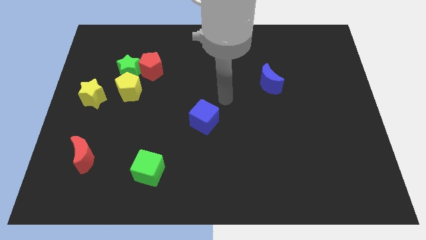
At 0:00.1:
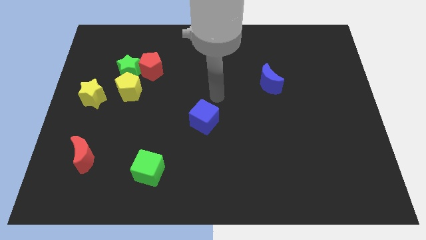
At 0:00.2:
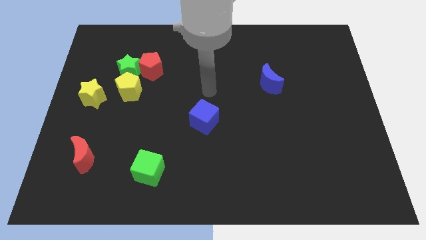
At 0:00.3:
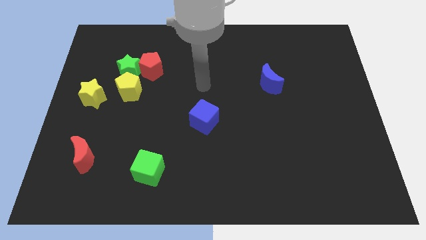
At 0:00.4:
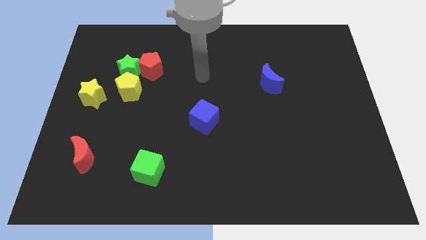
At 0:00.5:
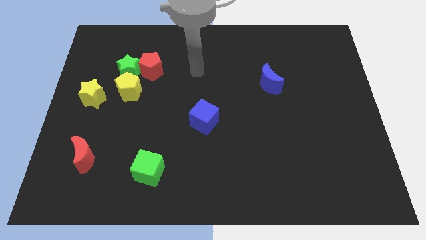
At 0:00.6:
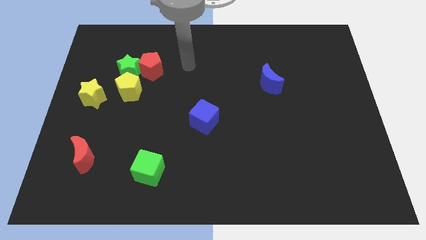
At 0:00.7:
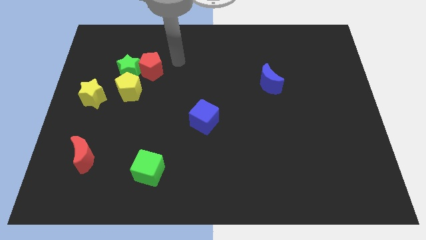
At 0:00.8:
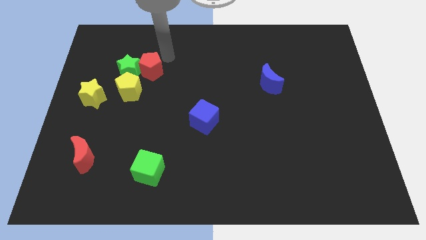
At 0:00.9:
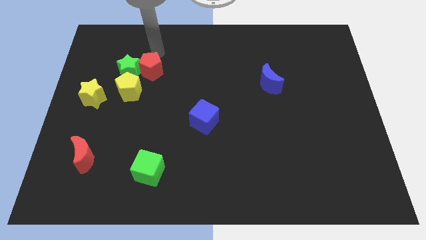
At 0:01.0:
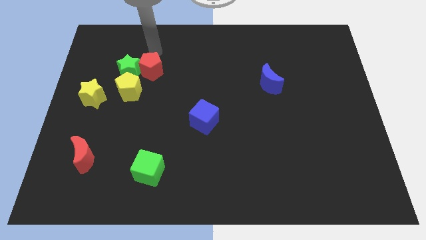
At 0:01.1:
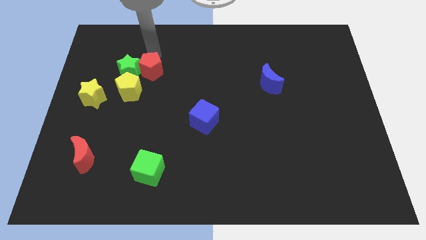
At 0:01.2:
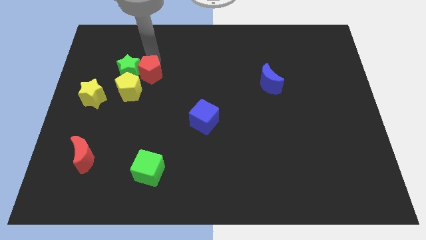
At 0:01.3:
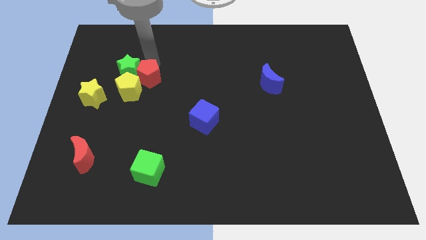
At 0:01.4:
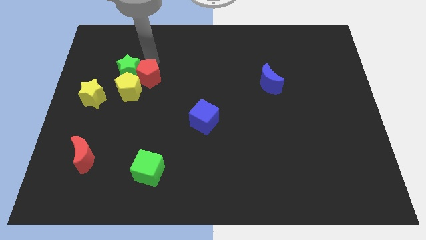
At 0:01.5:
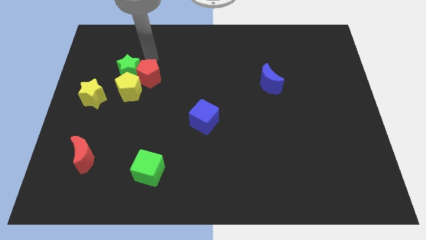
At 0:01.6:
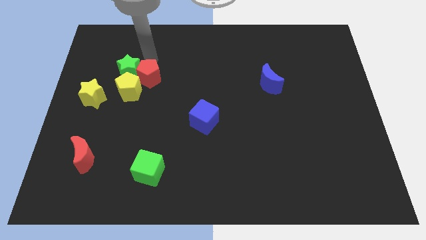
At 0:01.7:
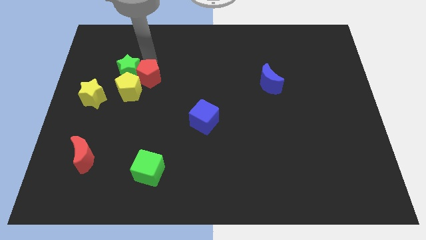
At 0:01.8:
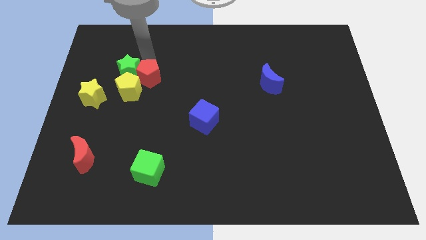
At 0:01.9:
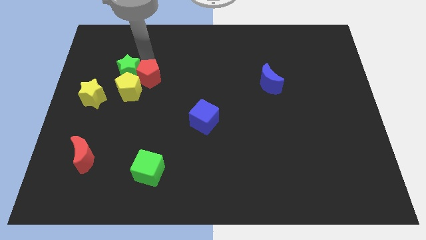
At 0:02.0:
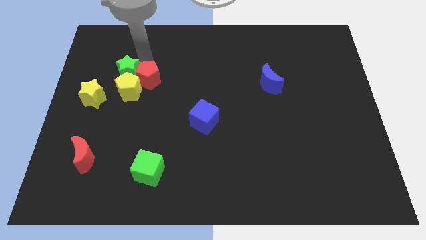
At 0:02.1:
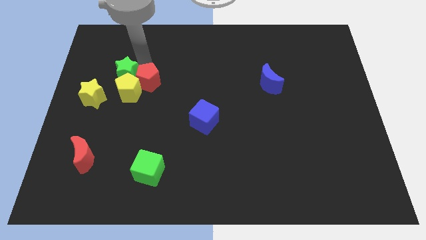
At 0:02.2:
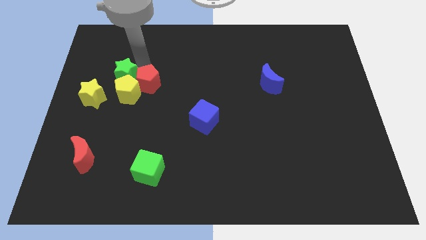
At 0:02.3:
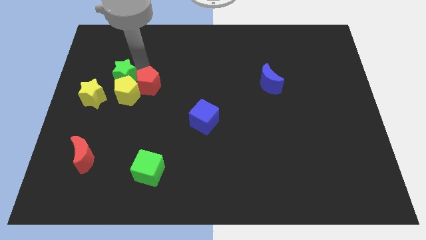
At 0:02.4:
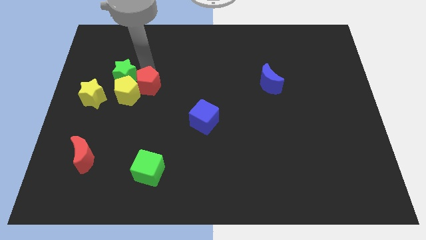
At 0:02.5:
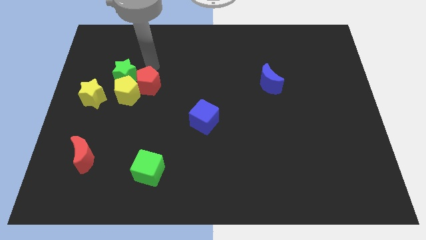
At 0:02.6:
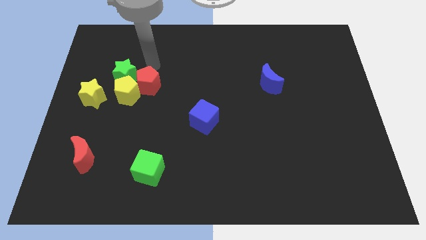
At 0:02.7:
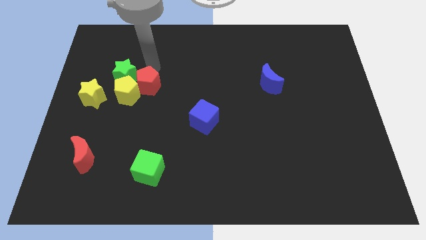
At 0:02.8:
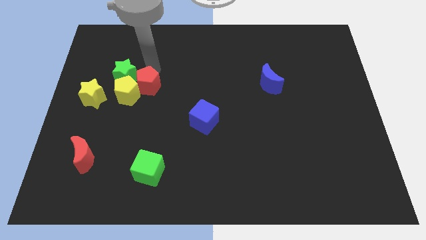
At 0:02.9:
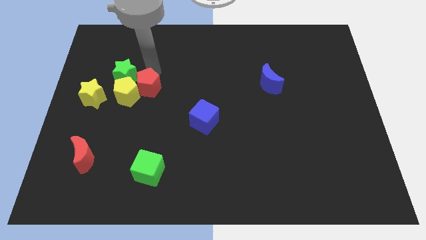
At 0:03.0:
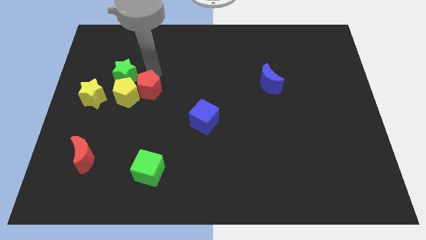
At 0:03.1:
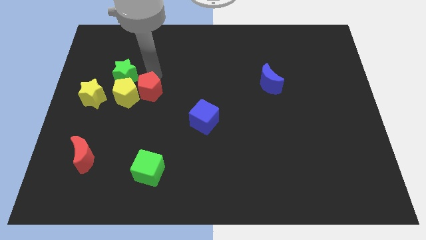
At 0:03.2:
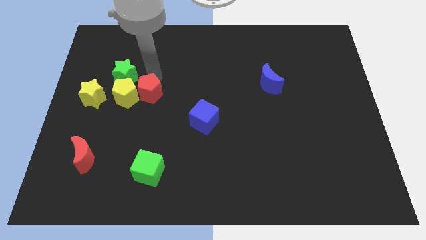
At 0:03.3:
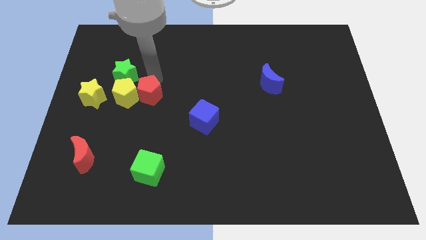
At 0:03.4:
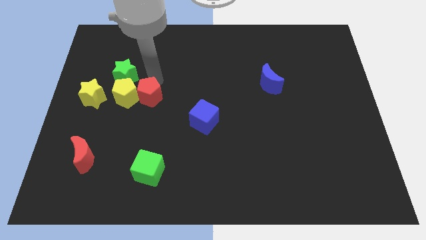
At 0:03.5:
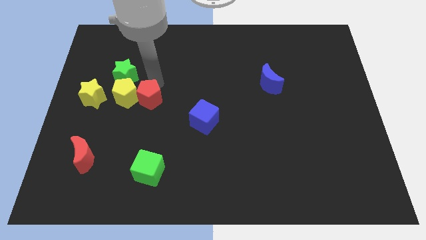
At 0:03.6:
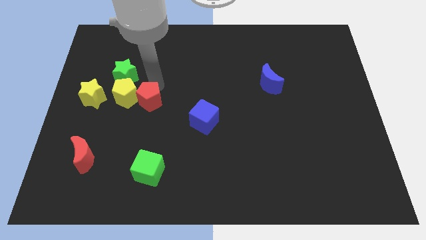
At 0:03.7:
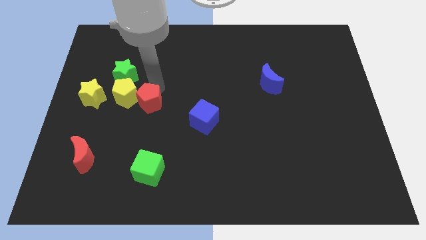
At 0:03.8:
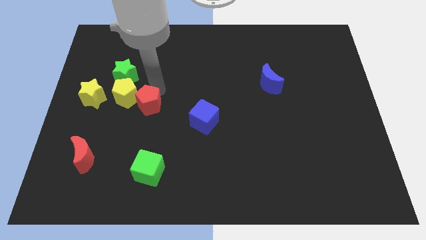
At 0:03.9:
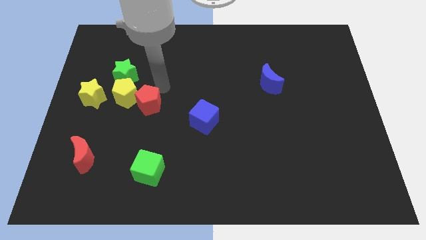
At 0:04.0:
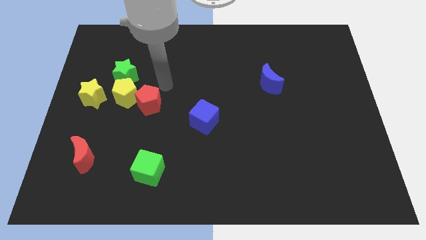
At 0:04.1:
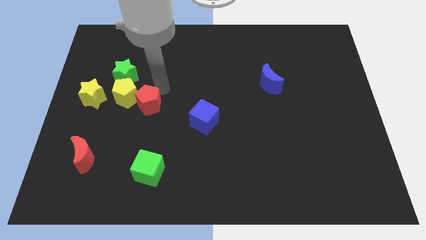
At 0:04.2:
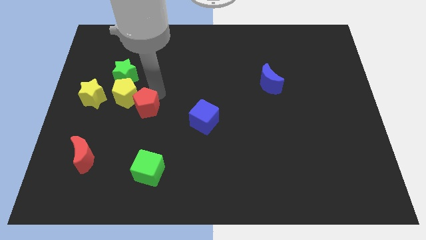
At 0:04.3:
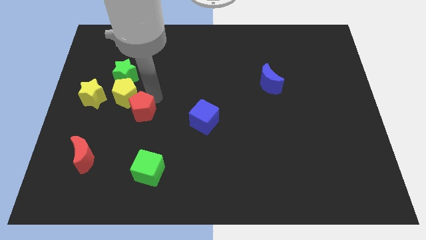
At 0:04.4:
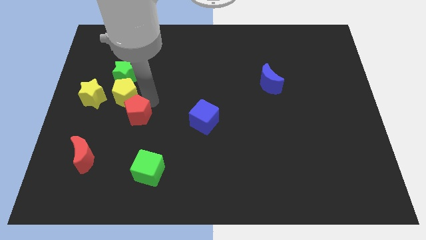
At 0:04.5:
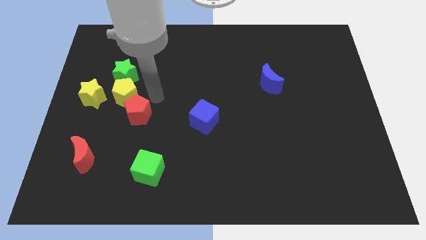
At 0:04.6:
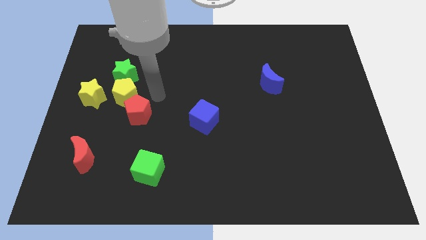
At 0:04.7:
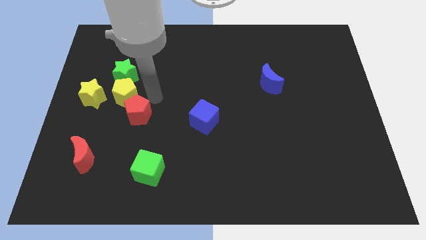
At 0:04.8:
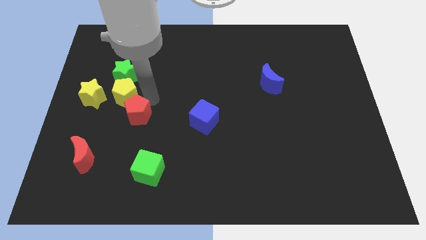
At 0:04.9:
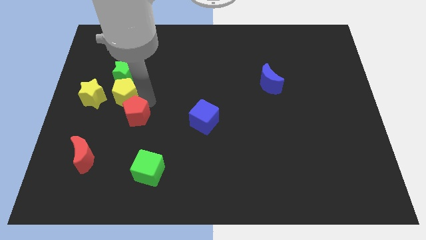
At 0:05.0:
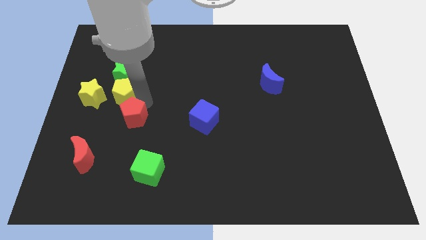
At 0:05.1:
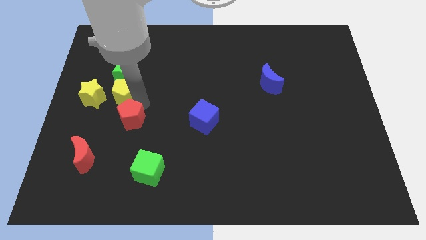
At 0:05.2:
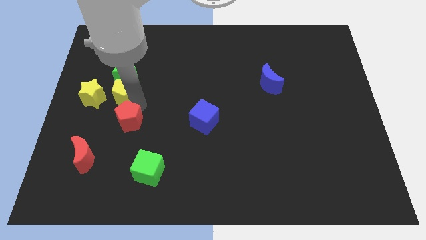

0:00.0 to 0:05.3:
move the red pentagon diagonally up and to the right of the red moon

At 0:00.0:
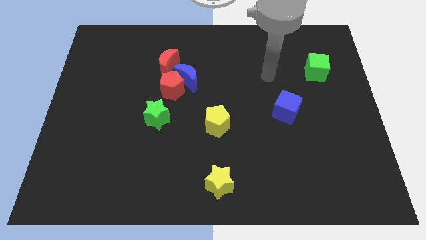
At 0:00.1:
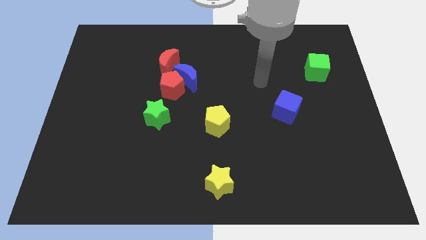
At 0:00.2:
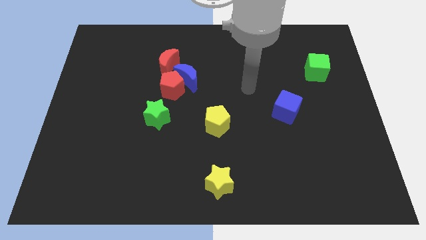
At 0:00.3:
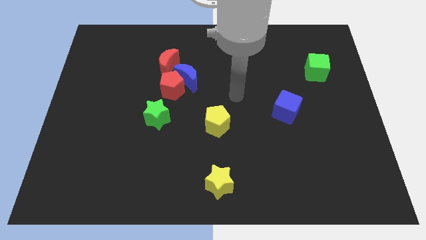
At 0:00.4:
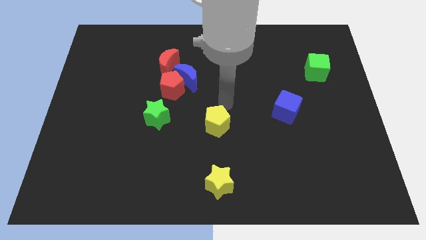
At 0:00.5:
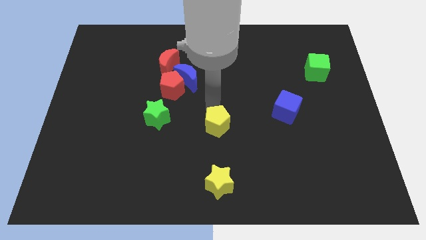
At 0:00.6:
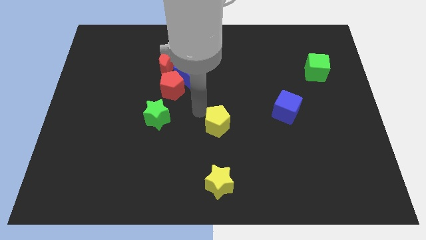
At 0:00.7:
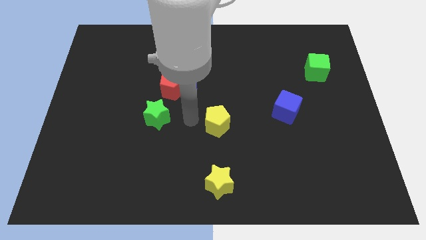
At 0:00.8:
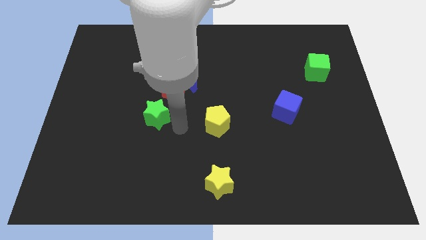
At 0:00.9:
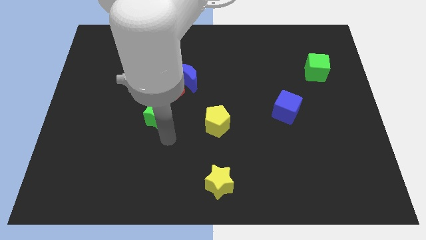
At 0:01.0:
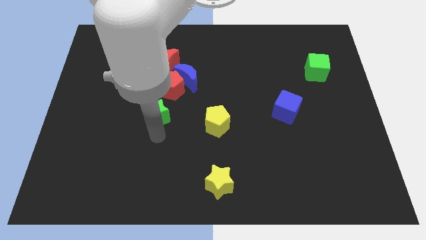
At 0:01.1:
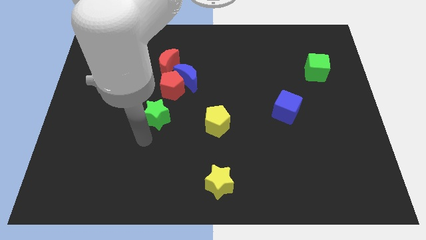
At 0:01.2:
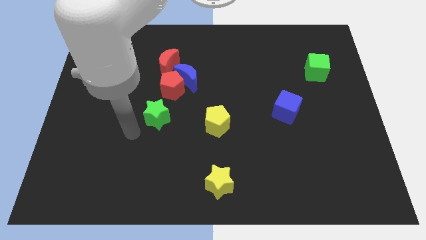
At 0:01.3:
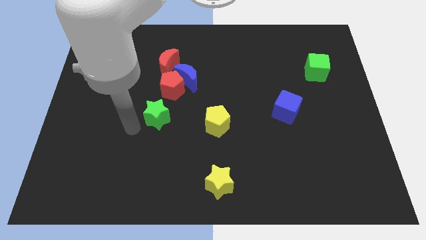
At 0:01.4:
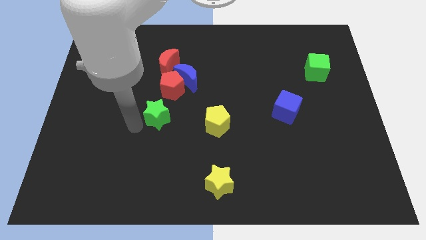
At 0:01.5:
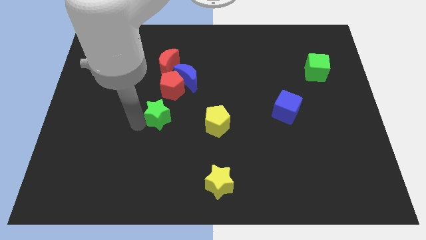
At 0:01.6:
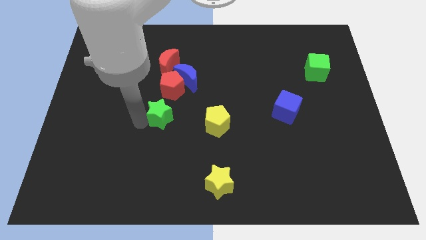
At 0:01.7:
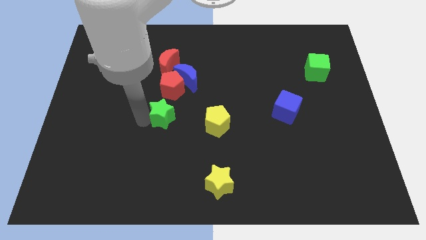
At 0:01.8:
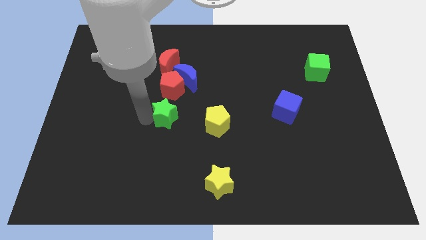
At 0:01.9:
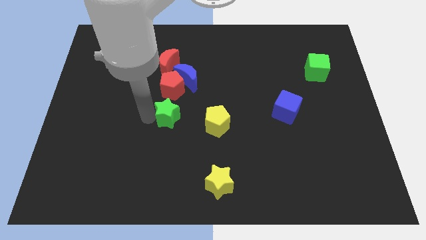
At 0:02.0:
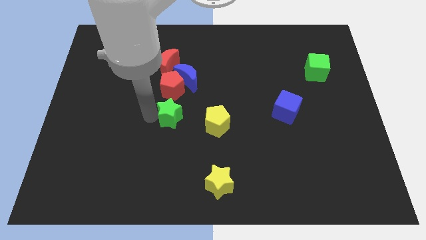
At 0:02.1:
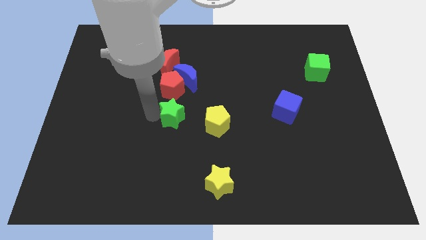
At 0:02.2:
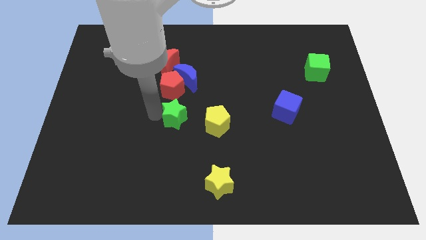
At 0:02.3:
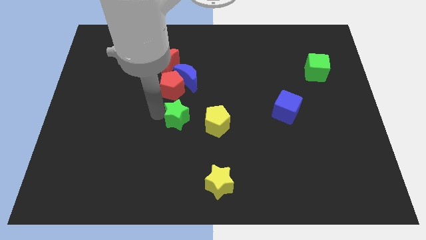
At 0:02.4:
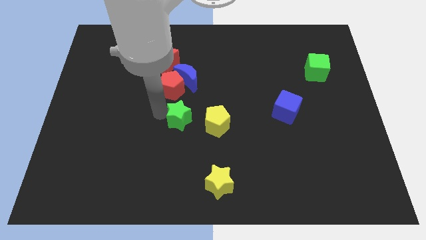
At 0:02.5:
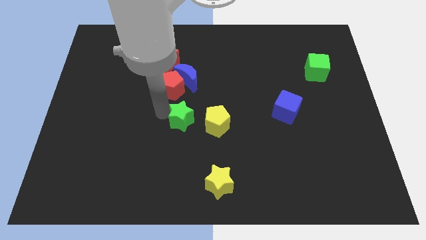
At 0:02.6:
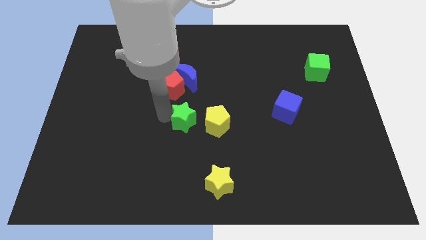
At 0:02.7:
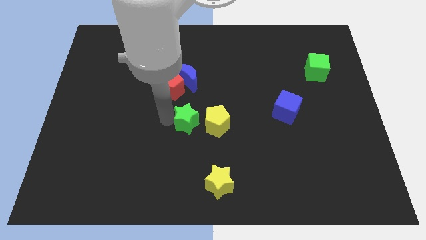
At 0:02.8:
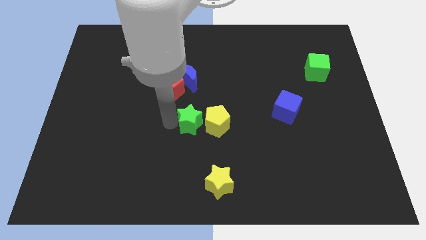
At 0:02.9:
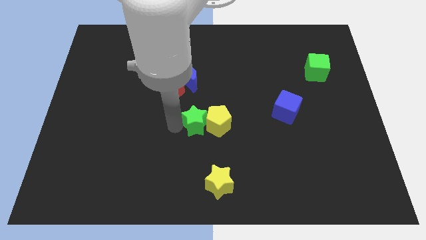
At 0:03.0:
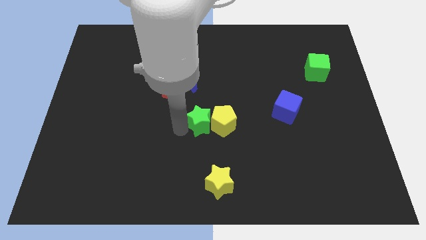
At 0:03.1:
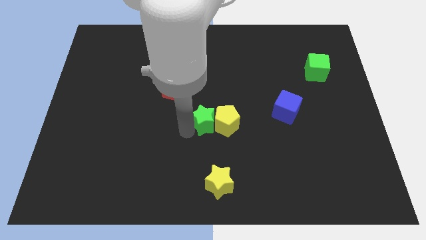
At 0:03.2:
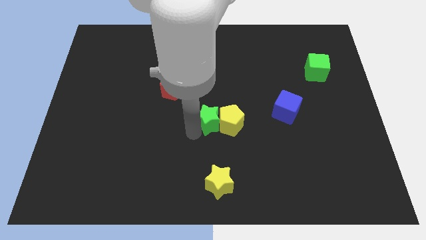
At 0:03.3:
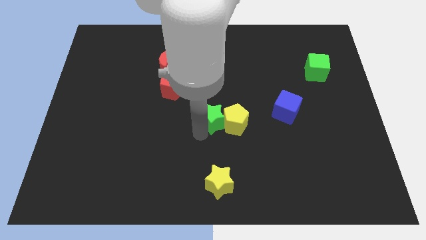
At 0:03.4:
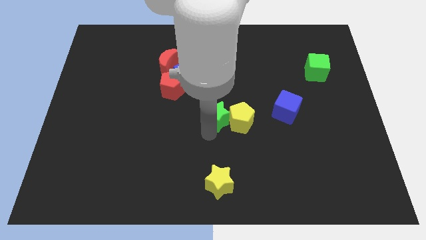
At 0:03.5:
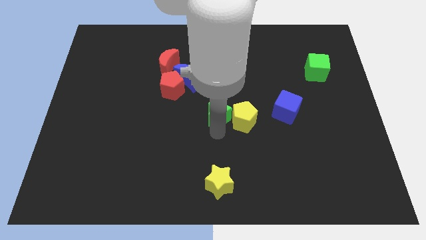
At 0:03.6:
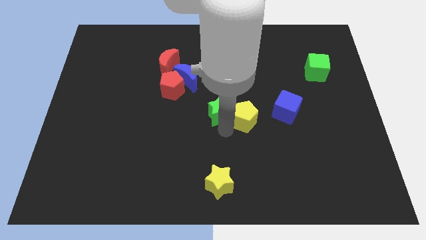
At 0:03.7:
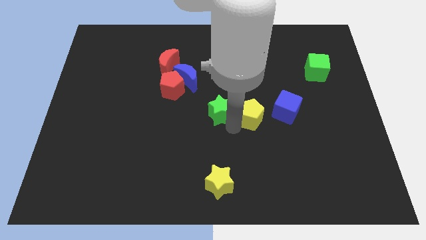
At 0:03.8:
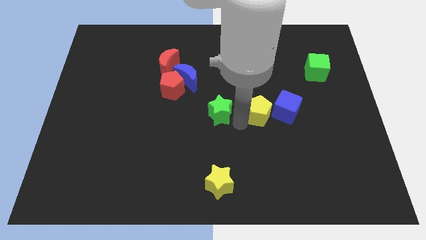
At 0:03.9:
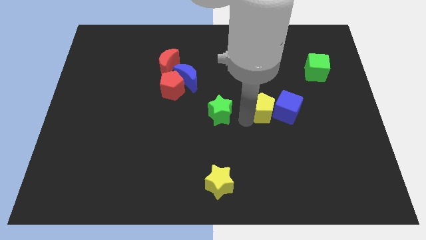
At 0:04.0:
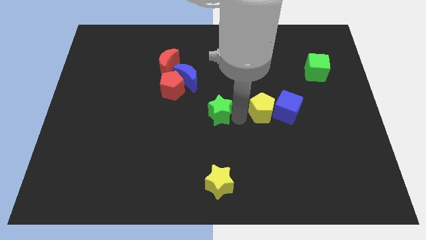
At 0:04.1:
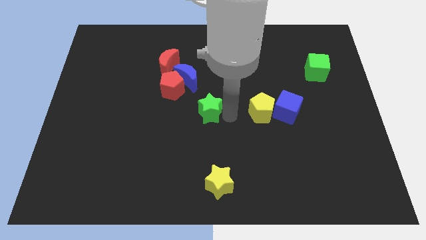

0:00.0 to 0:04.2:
push the green star to the bottom right side of the blue moon
